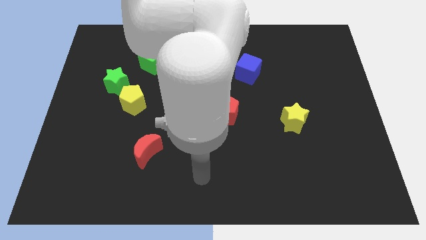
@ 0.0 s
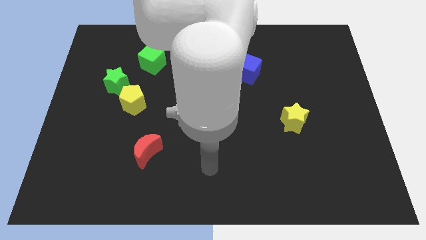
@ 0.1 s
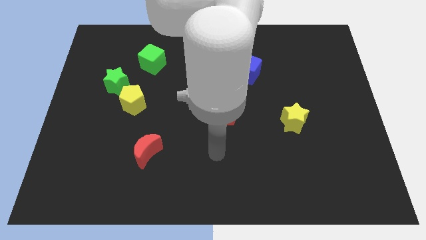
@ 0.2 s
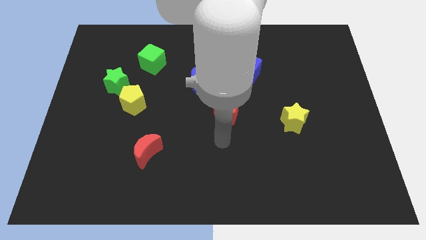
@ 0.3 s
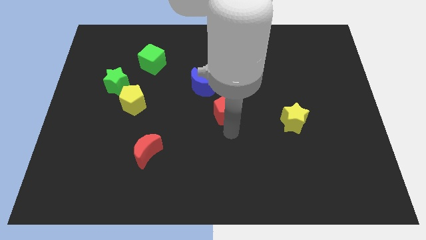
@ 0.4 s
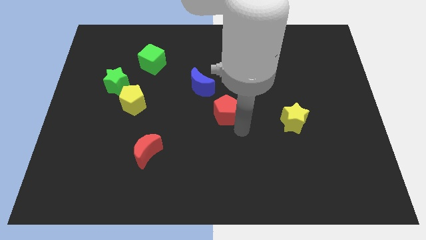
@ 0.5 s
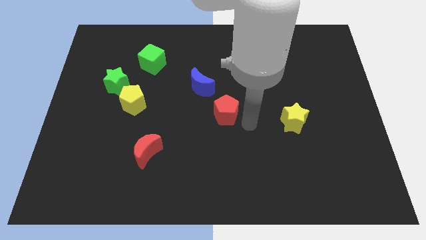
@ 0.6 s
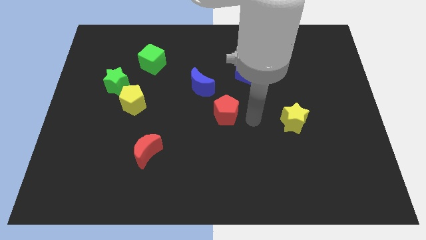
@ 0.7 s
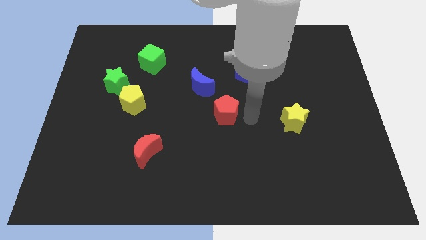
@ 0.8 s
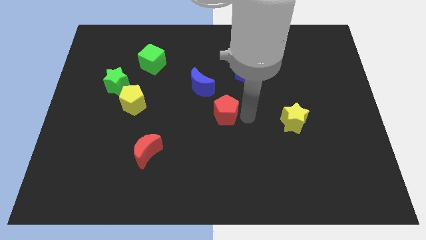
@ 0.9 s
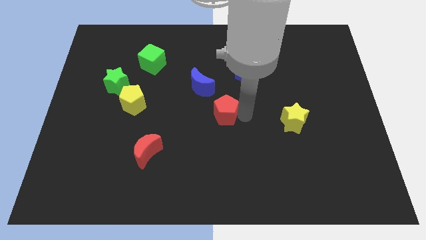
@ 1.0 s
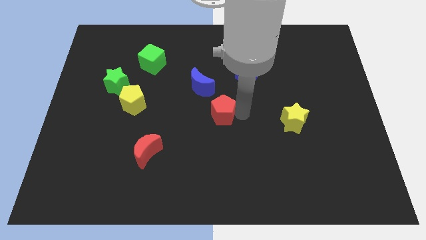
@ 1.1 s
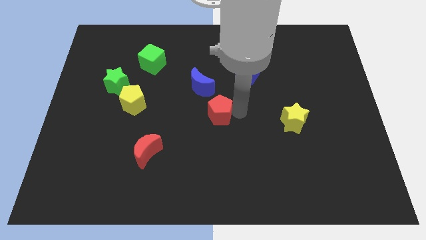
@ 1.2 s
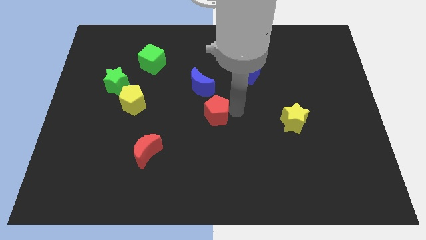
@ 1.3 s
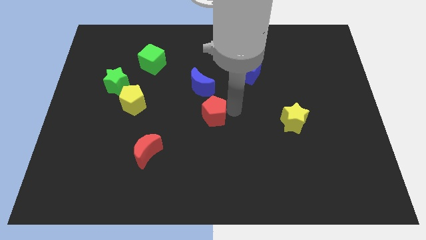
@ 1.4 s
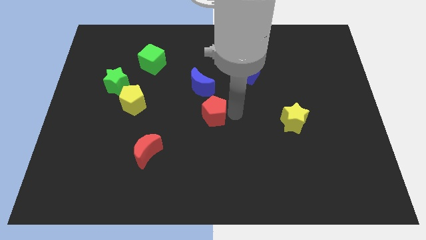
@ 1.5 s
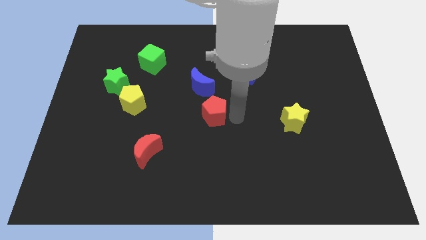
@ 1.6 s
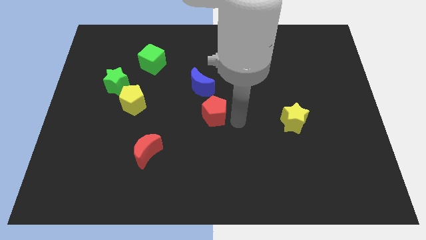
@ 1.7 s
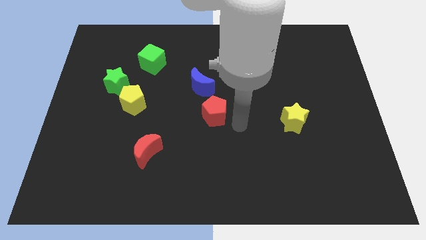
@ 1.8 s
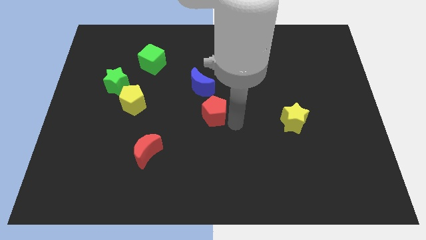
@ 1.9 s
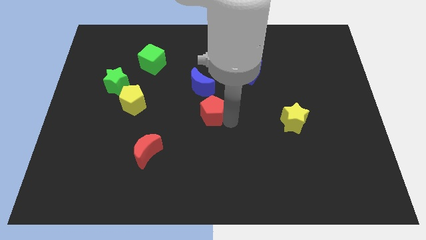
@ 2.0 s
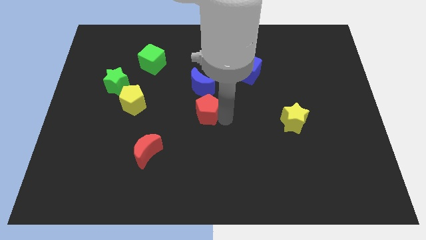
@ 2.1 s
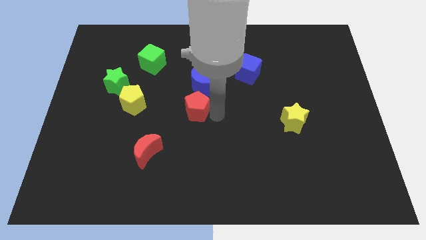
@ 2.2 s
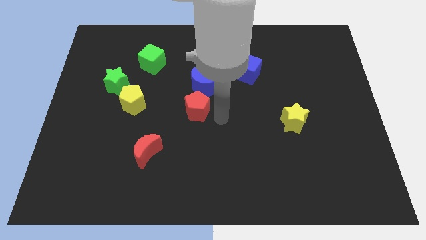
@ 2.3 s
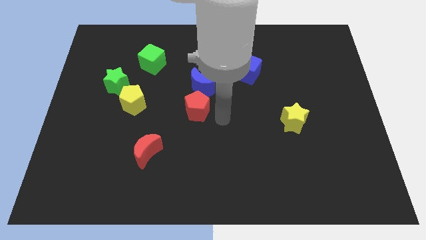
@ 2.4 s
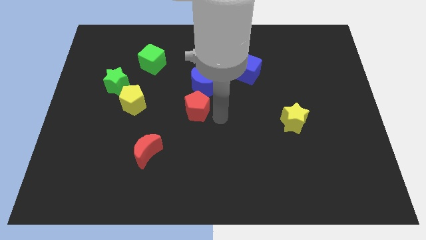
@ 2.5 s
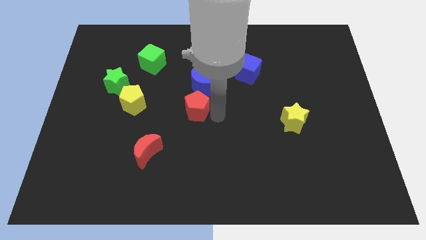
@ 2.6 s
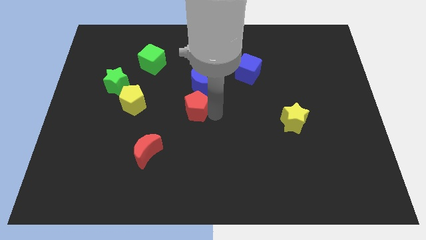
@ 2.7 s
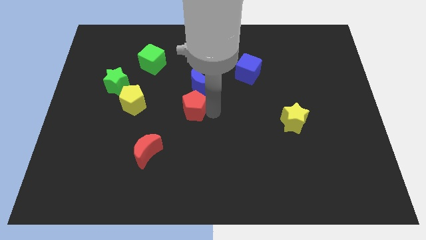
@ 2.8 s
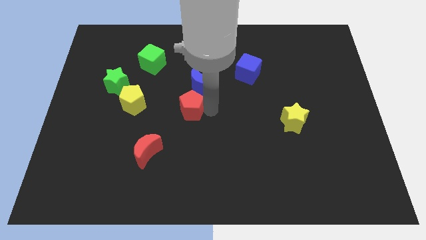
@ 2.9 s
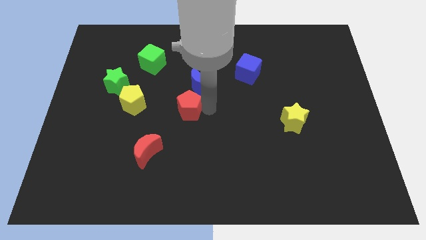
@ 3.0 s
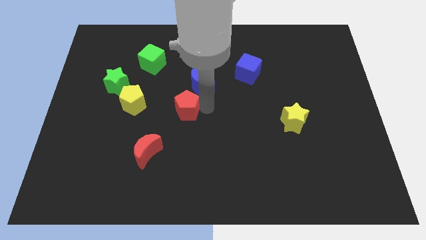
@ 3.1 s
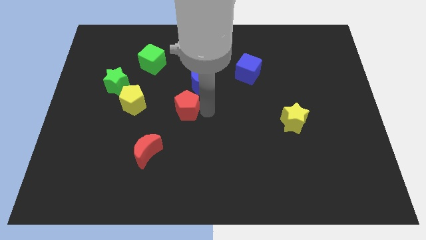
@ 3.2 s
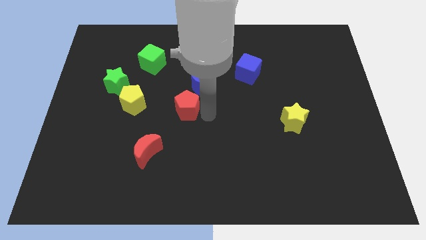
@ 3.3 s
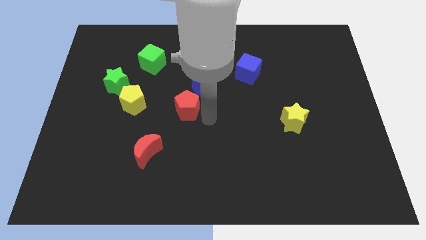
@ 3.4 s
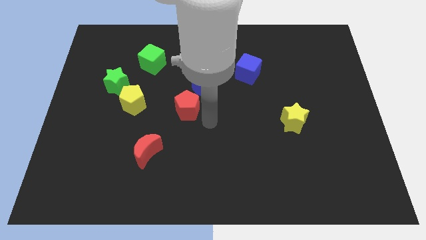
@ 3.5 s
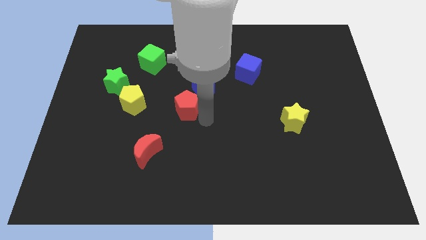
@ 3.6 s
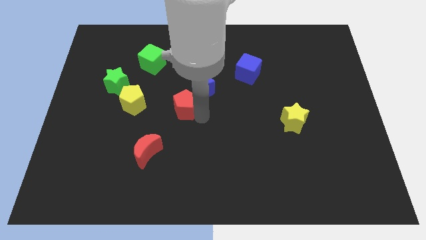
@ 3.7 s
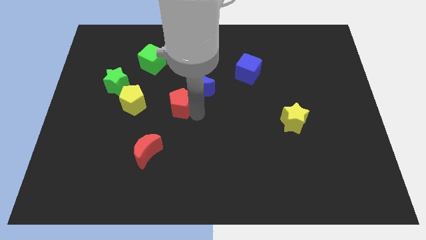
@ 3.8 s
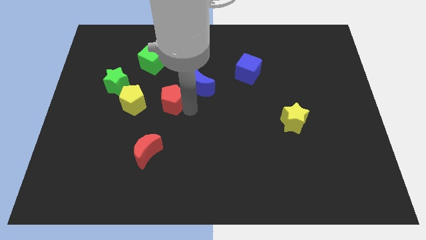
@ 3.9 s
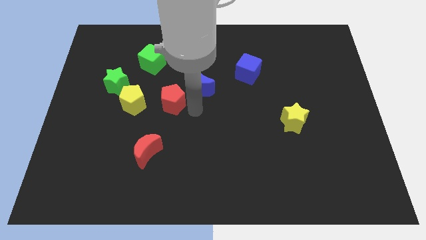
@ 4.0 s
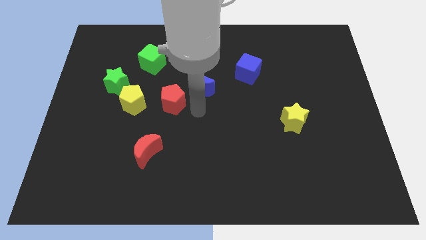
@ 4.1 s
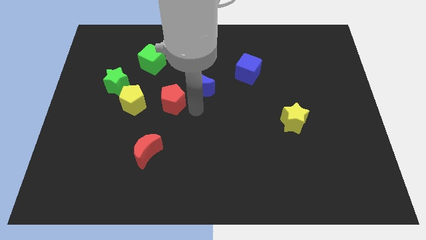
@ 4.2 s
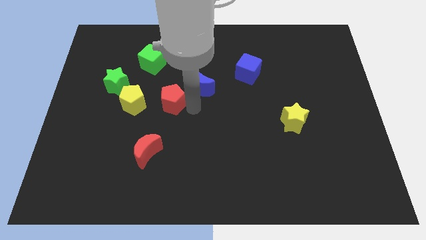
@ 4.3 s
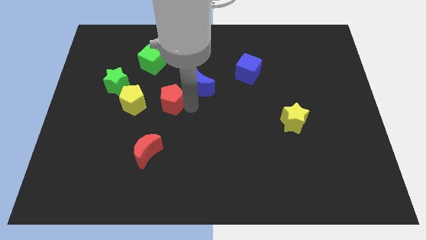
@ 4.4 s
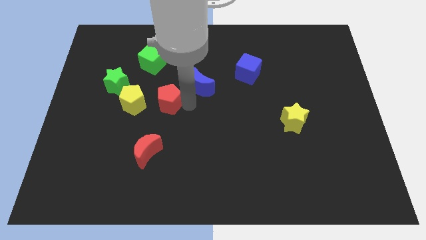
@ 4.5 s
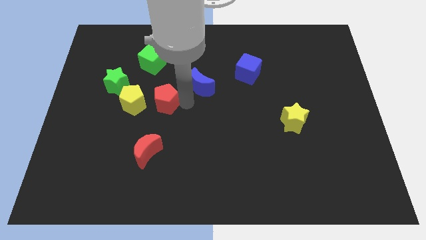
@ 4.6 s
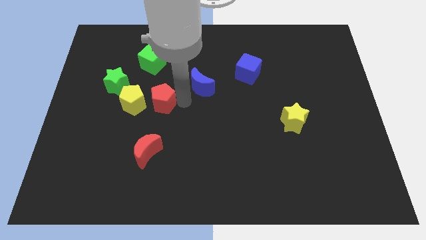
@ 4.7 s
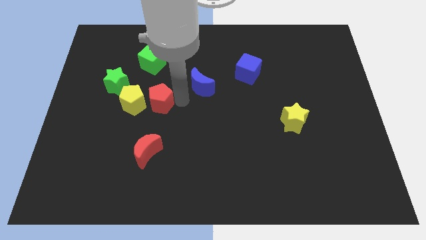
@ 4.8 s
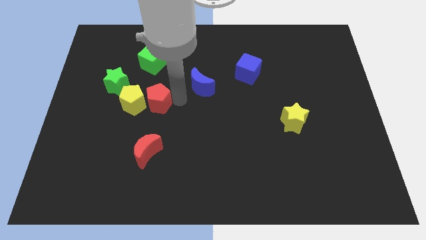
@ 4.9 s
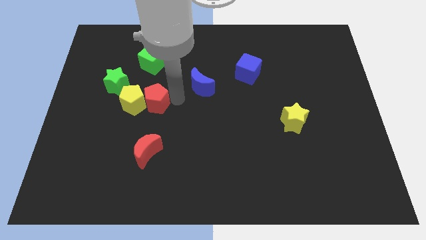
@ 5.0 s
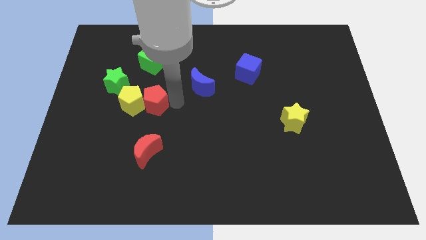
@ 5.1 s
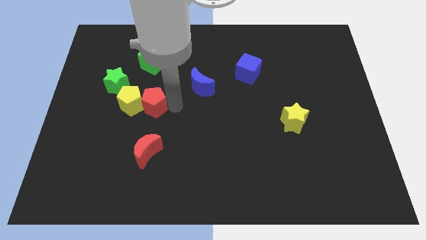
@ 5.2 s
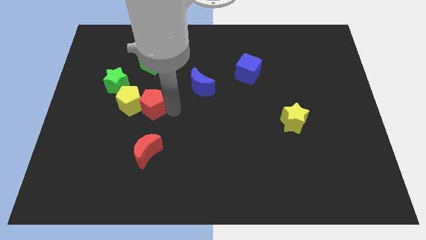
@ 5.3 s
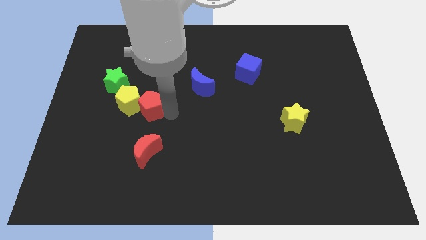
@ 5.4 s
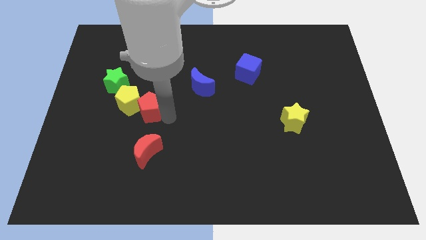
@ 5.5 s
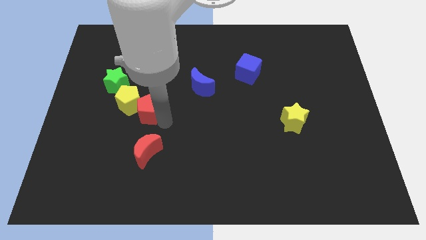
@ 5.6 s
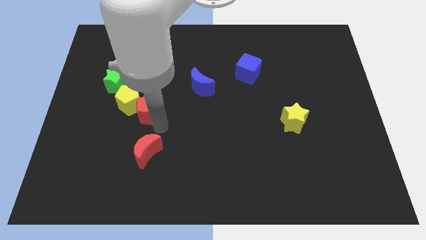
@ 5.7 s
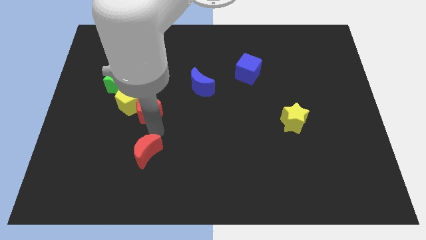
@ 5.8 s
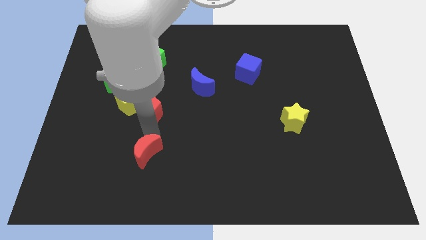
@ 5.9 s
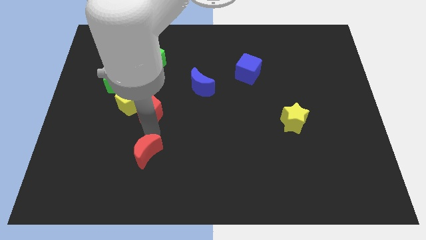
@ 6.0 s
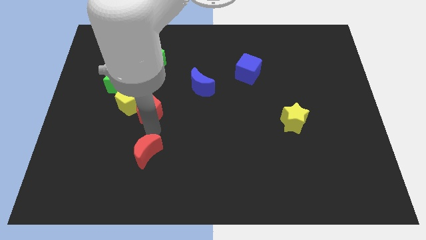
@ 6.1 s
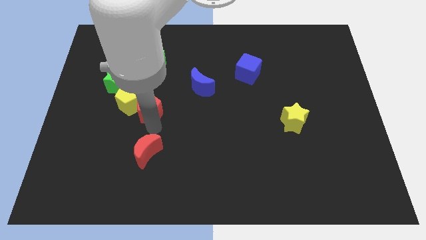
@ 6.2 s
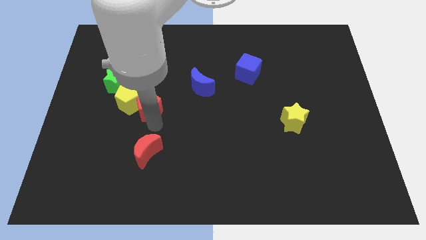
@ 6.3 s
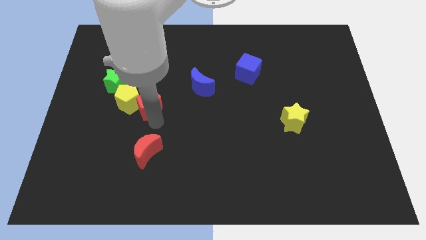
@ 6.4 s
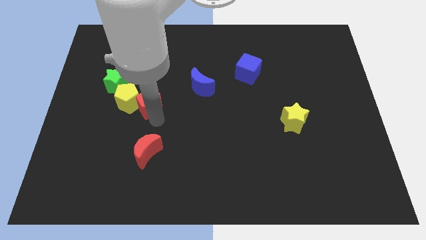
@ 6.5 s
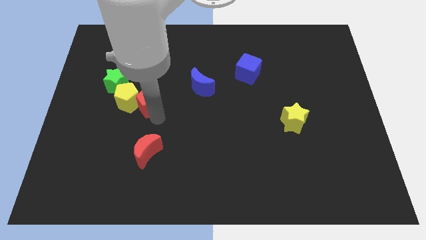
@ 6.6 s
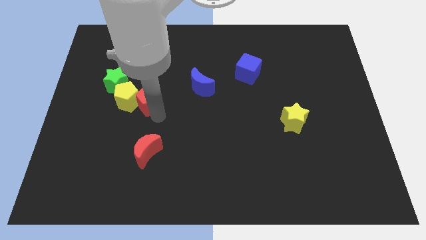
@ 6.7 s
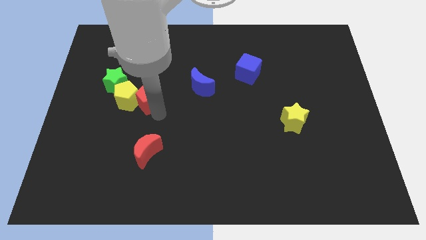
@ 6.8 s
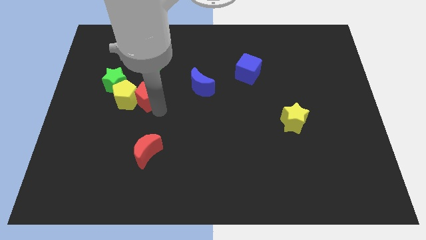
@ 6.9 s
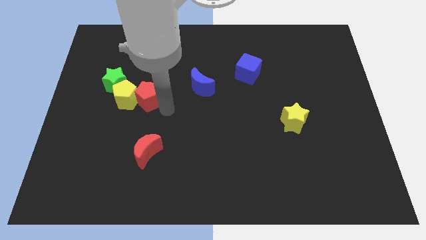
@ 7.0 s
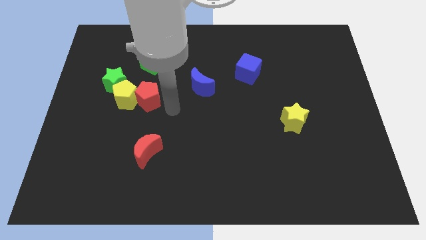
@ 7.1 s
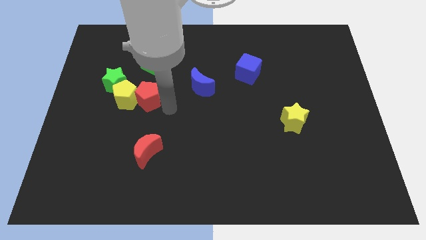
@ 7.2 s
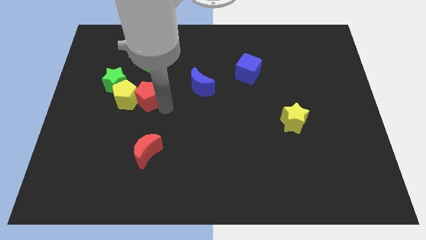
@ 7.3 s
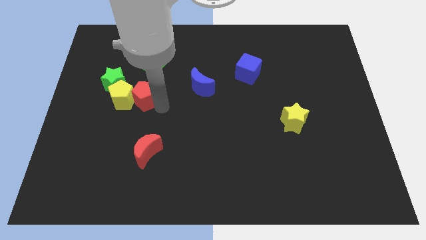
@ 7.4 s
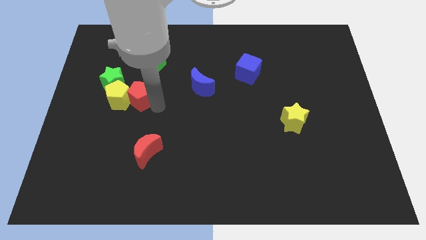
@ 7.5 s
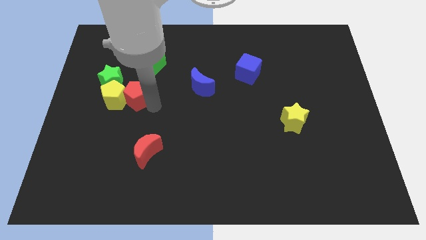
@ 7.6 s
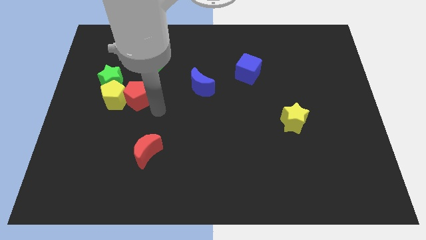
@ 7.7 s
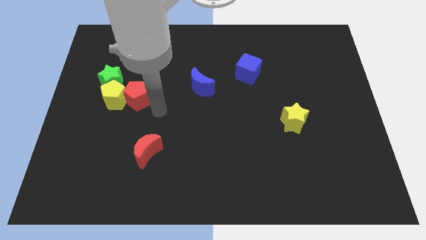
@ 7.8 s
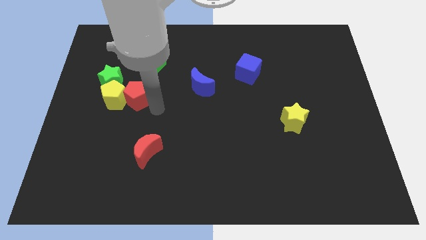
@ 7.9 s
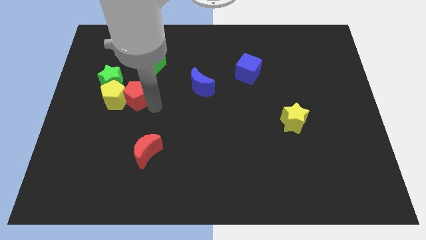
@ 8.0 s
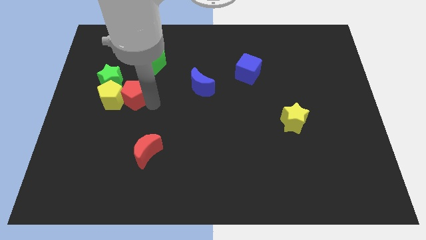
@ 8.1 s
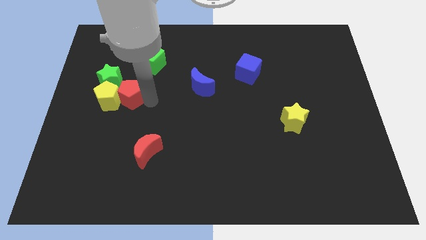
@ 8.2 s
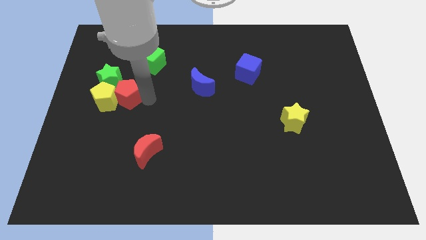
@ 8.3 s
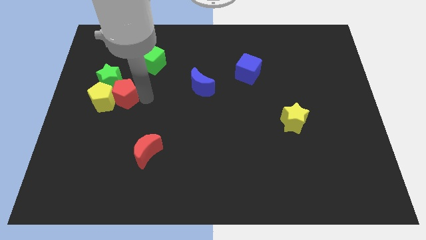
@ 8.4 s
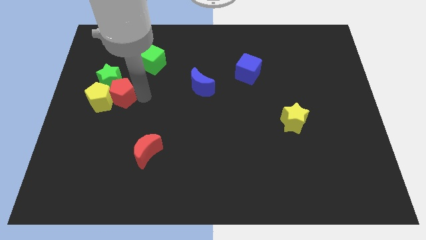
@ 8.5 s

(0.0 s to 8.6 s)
slide the red pentagon towards the green star
